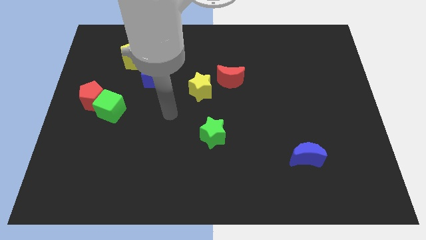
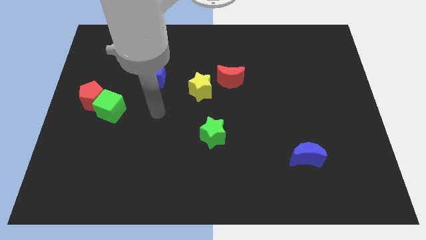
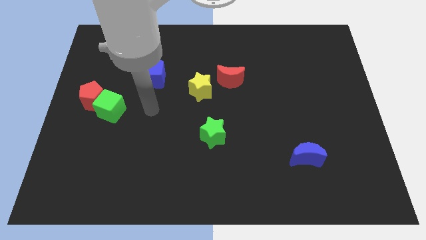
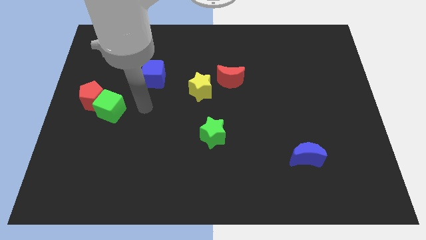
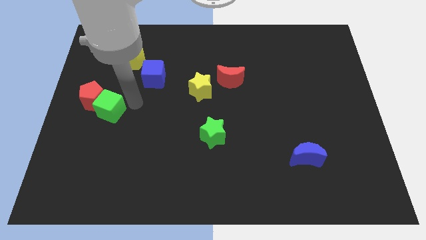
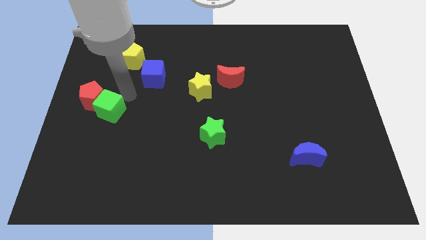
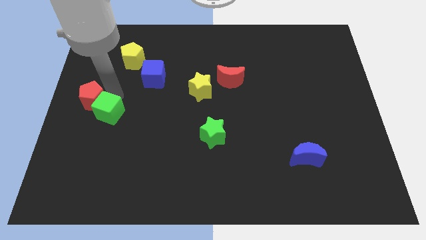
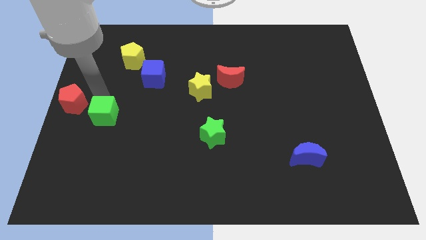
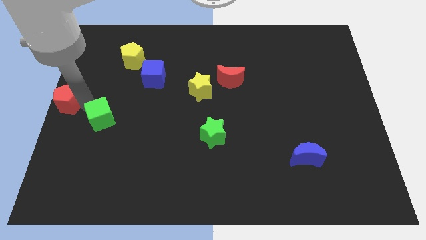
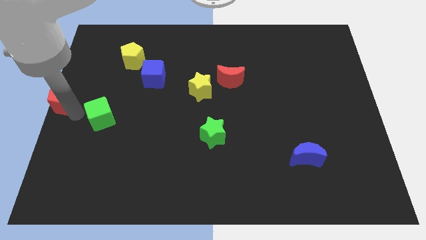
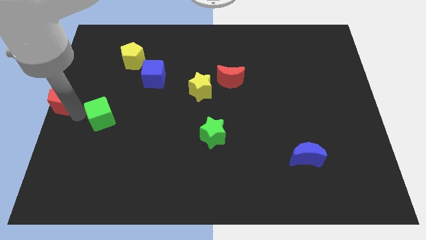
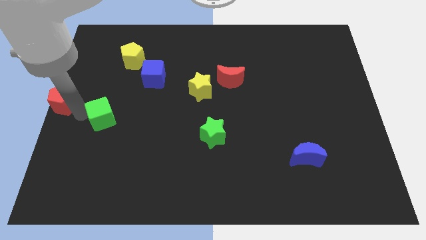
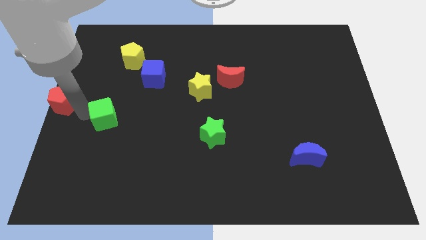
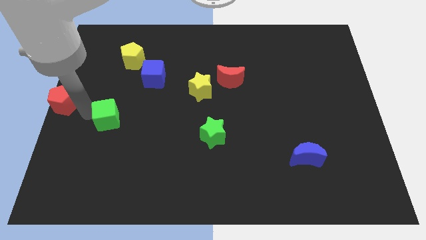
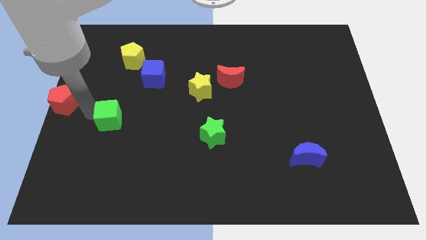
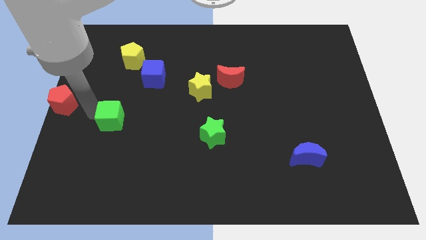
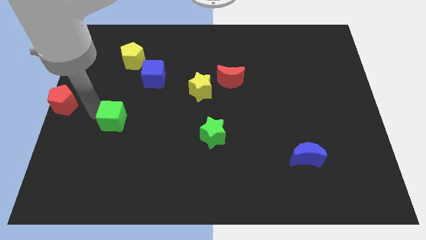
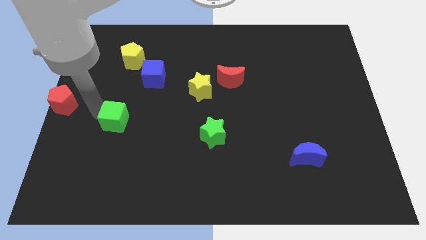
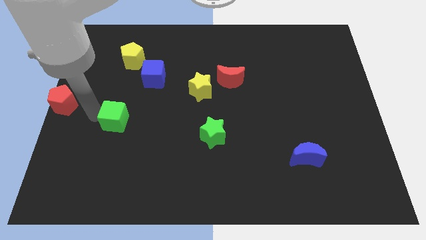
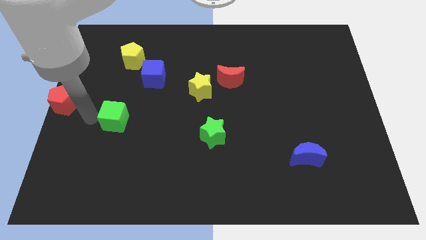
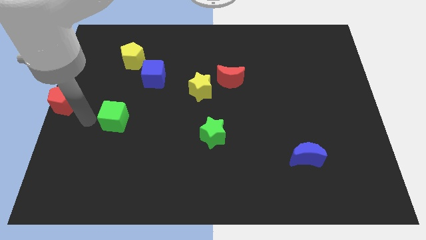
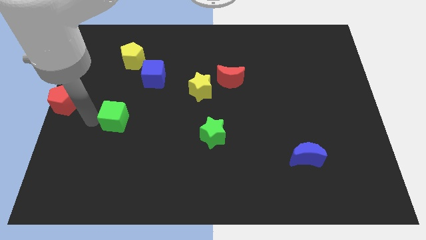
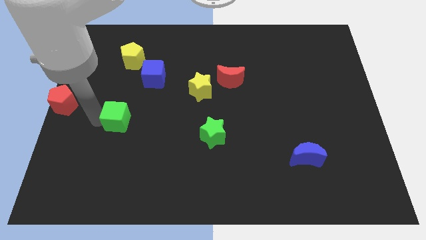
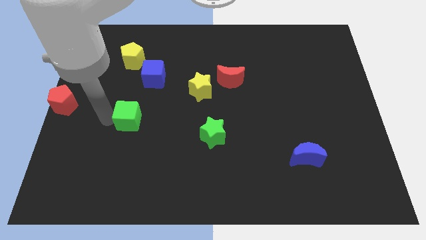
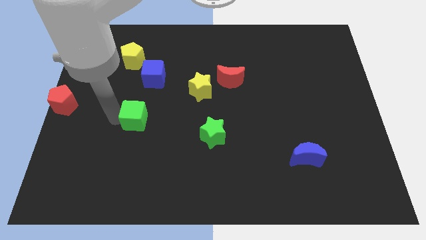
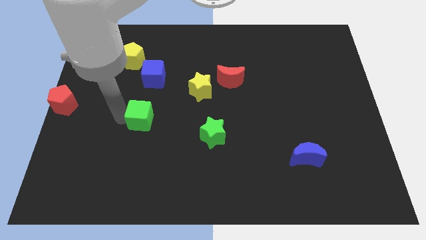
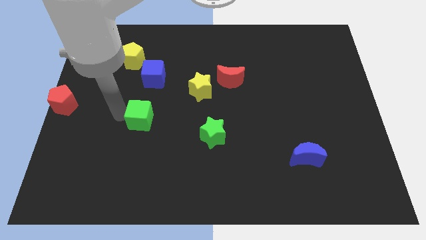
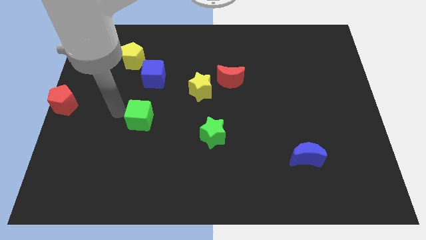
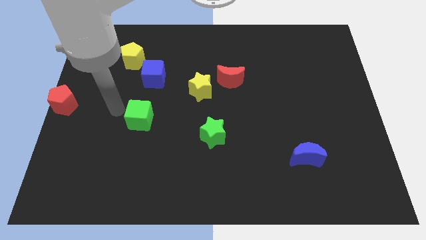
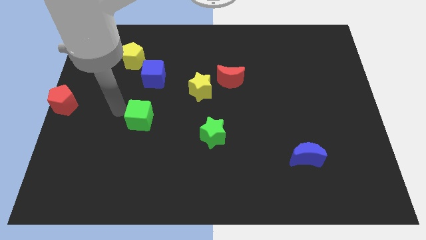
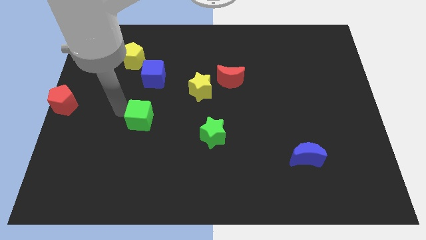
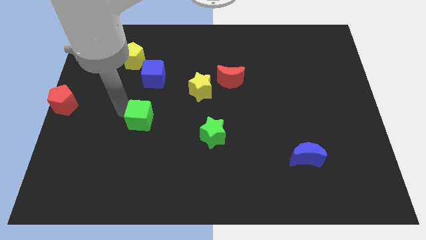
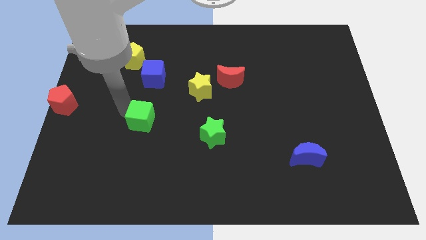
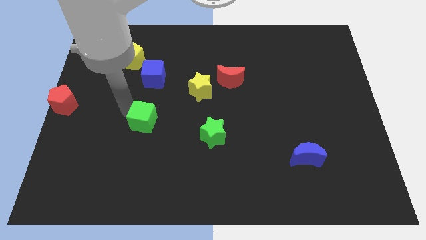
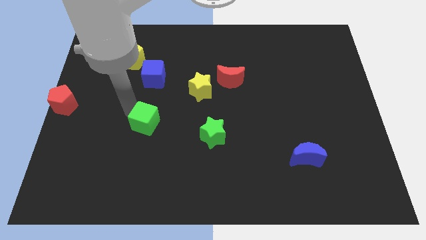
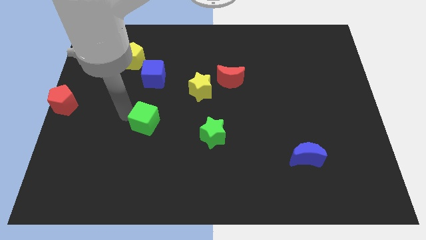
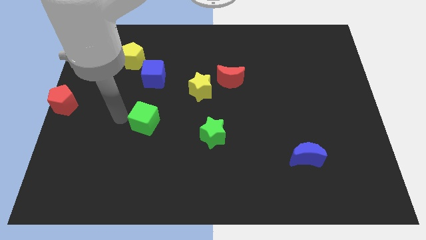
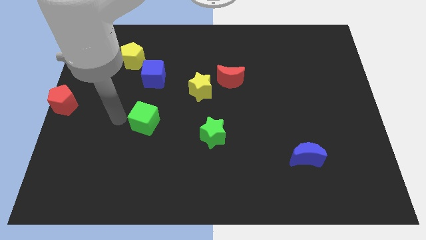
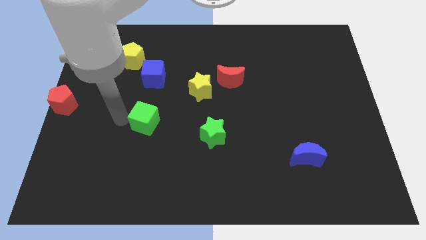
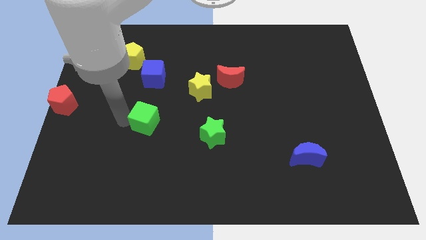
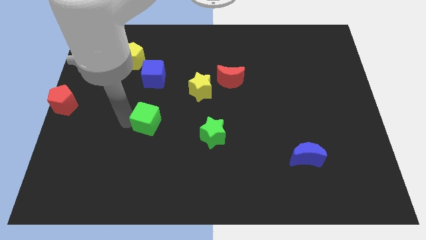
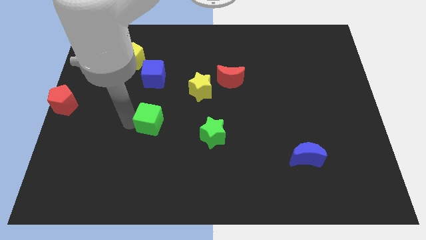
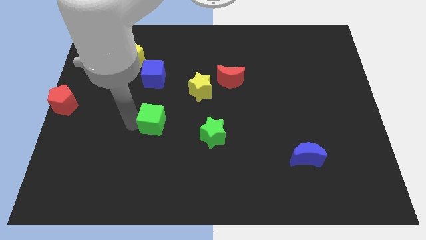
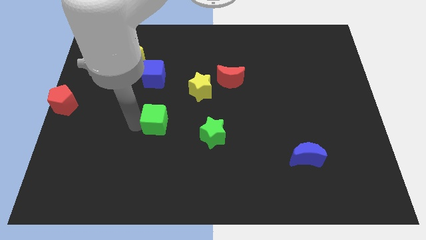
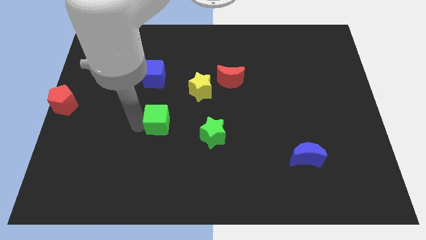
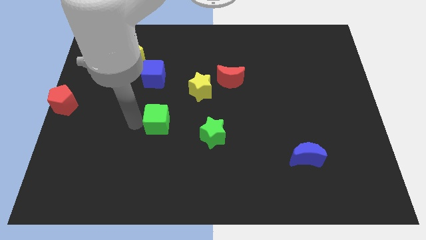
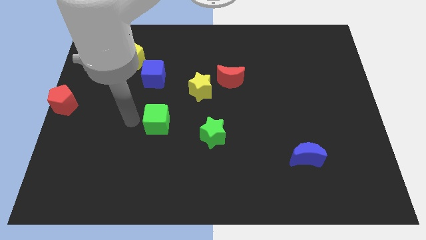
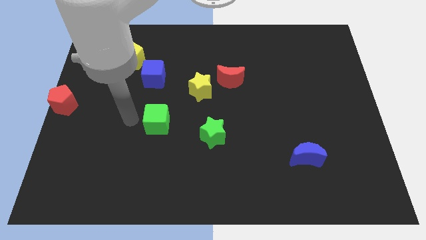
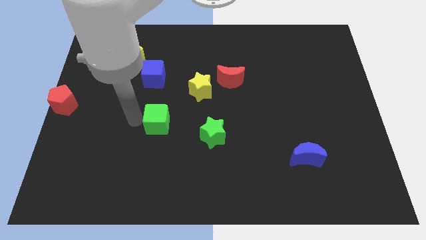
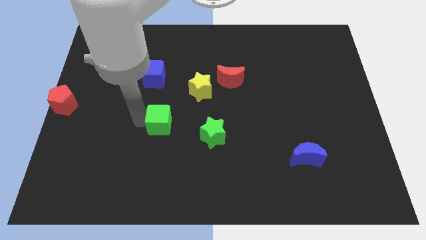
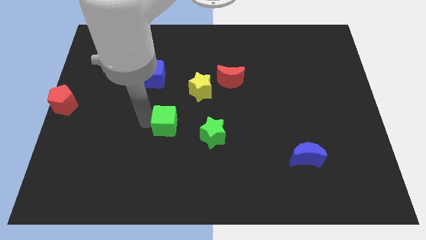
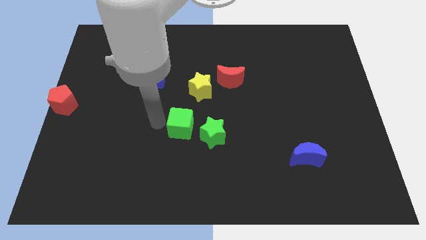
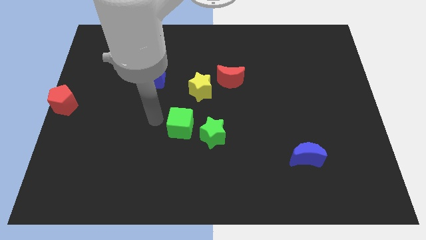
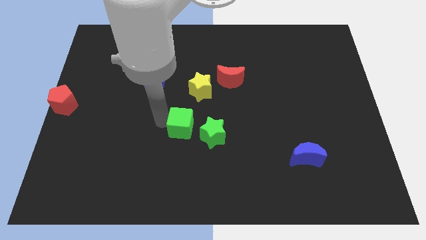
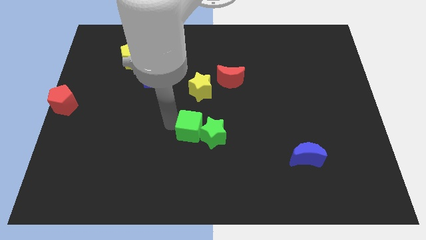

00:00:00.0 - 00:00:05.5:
slide the green cube close to the green star
